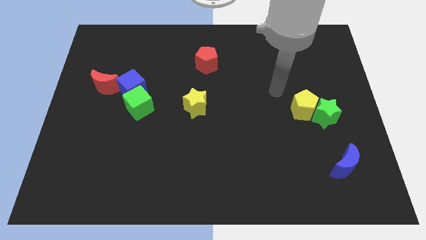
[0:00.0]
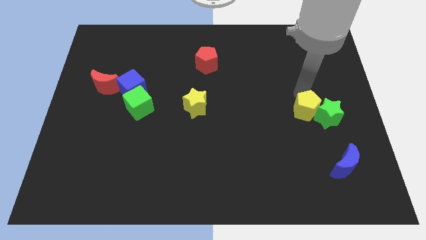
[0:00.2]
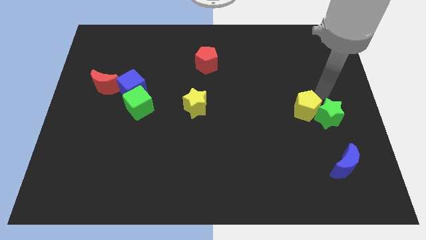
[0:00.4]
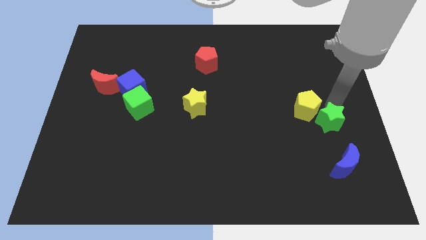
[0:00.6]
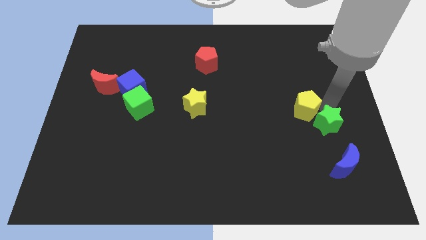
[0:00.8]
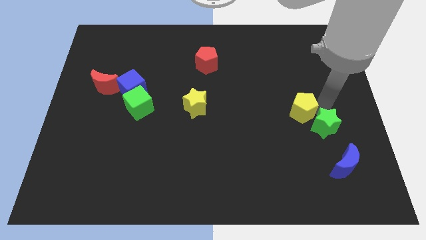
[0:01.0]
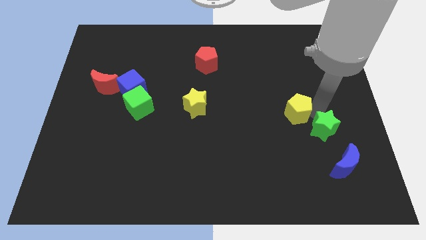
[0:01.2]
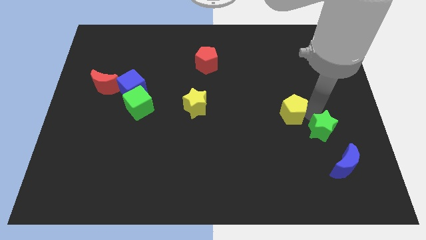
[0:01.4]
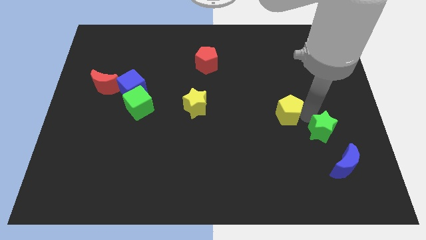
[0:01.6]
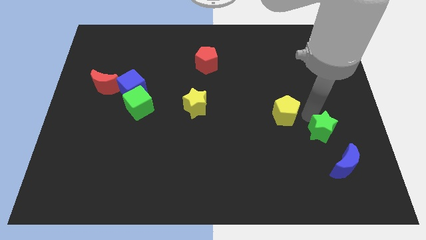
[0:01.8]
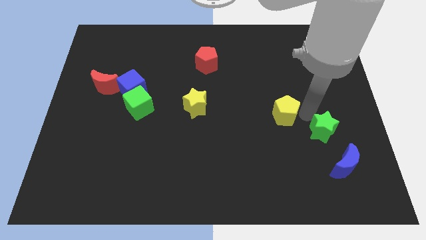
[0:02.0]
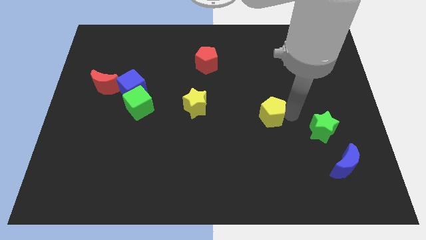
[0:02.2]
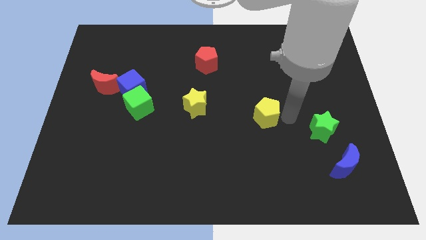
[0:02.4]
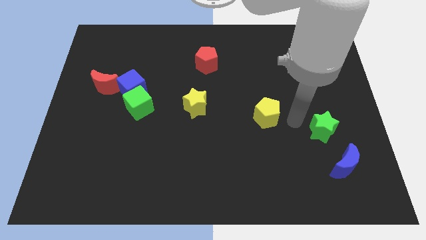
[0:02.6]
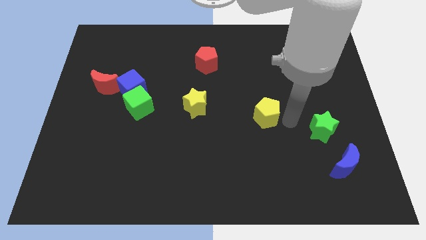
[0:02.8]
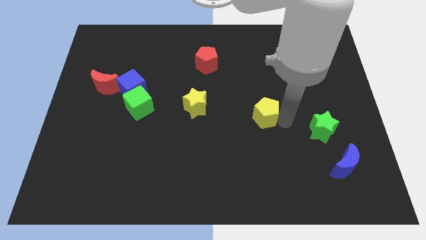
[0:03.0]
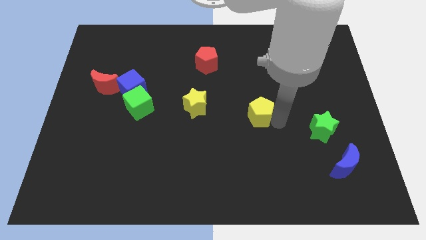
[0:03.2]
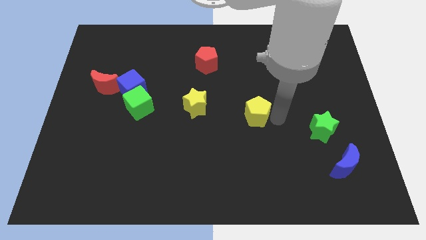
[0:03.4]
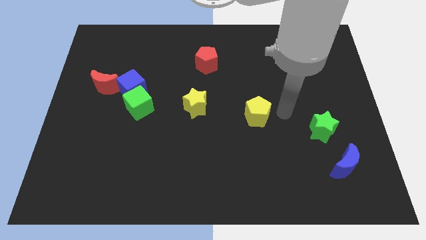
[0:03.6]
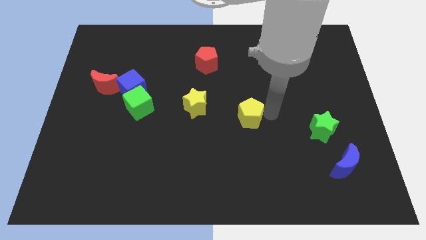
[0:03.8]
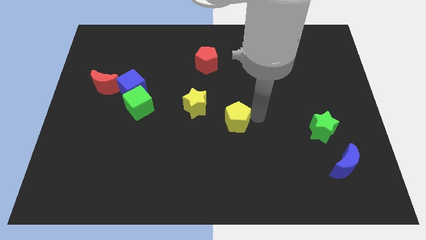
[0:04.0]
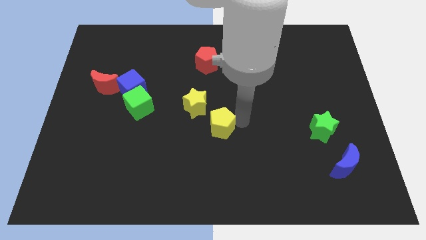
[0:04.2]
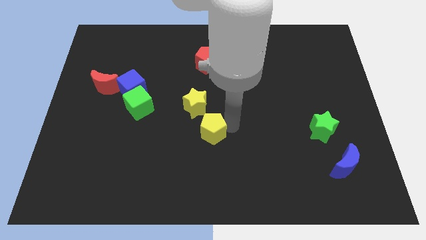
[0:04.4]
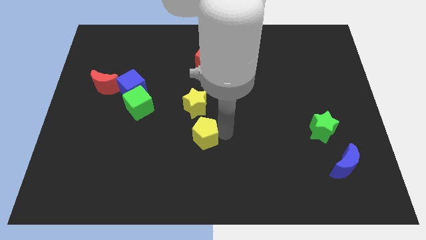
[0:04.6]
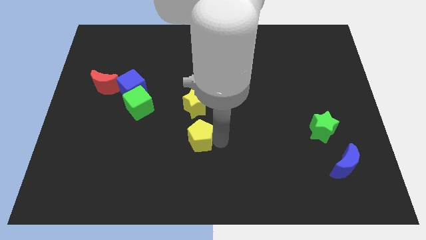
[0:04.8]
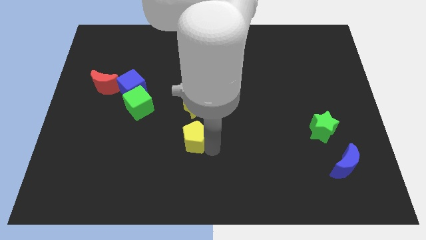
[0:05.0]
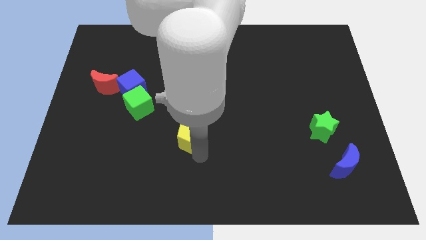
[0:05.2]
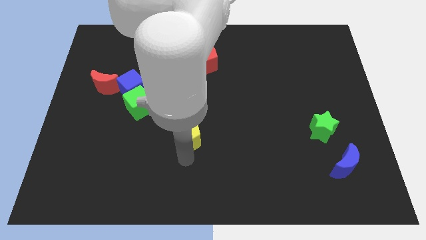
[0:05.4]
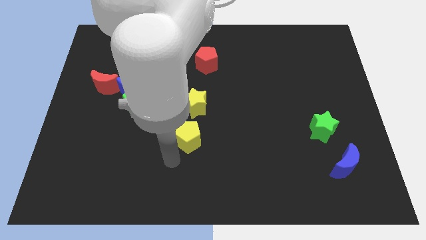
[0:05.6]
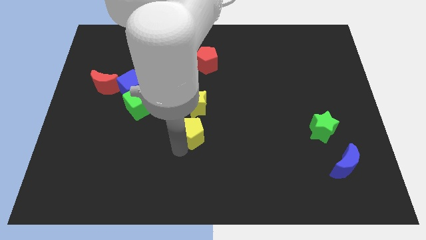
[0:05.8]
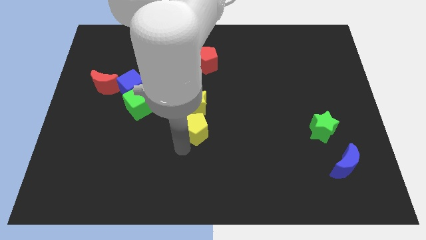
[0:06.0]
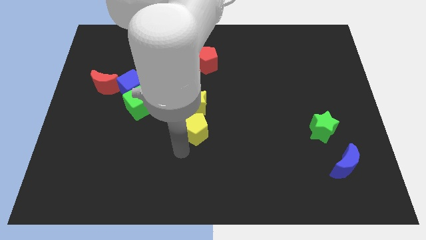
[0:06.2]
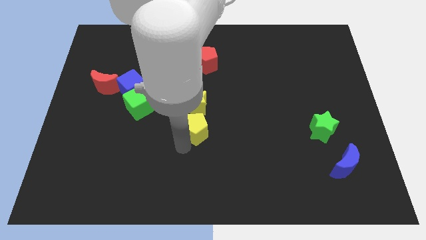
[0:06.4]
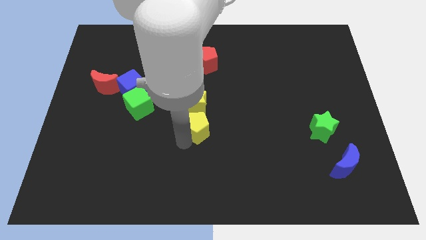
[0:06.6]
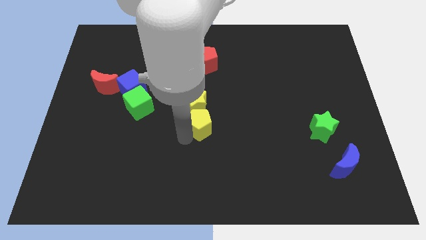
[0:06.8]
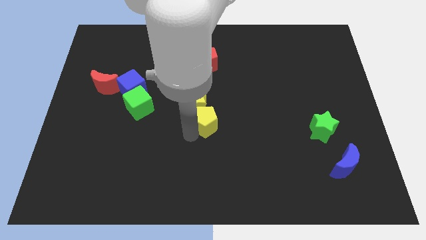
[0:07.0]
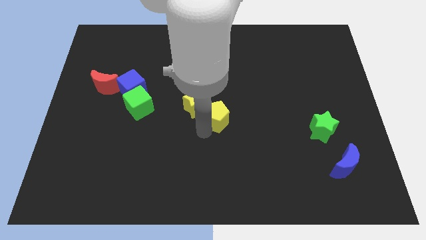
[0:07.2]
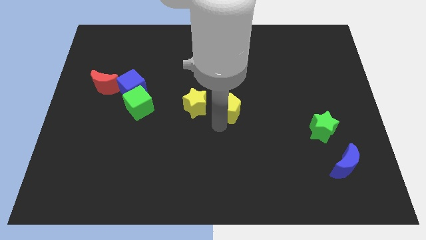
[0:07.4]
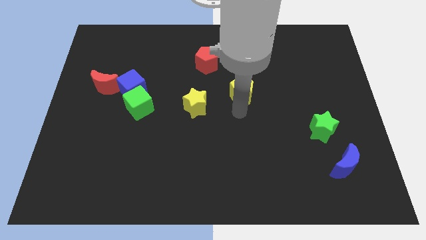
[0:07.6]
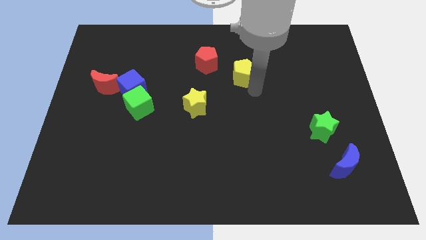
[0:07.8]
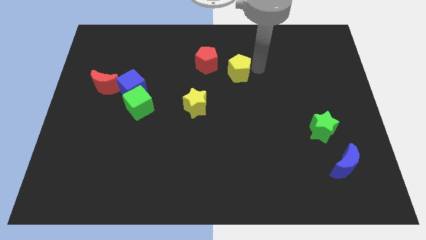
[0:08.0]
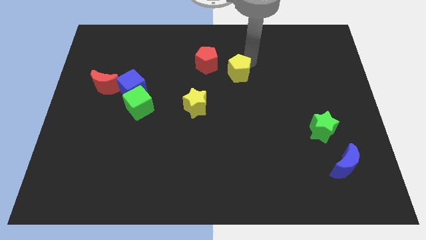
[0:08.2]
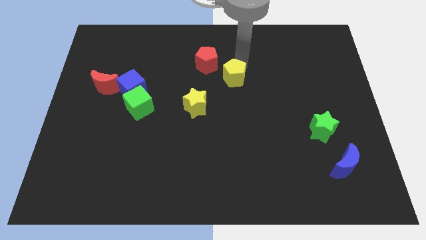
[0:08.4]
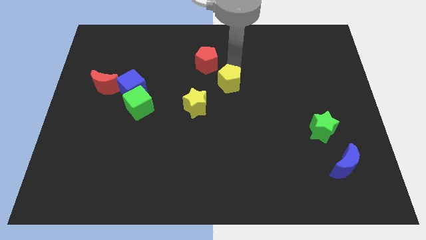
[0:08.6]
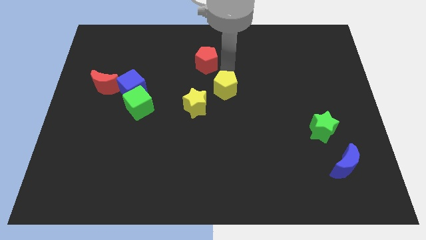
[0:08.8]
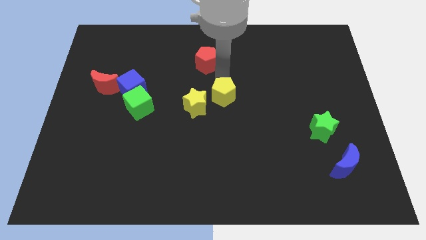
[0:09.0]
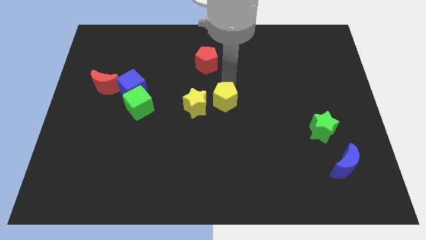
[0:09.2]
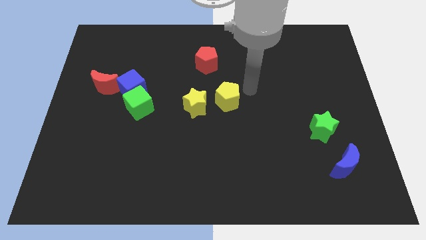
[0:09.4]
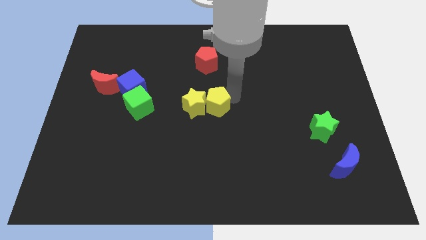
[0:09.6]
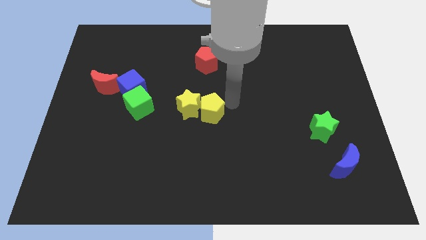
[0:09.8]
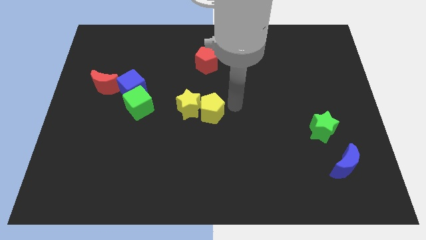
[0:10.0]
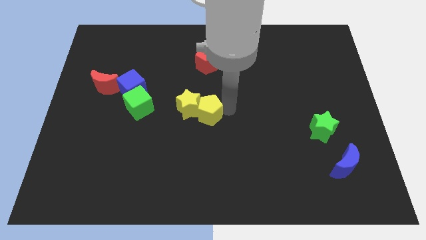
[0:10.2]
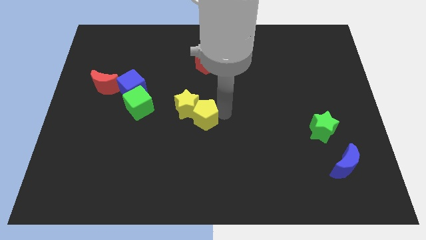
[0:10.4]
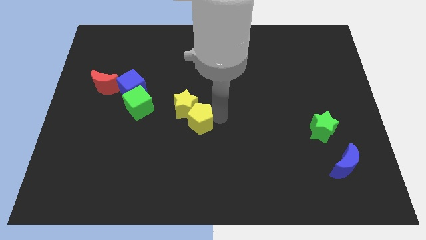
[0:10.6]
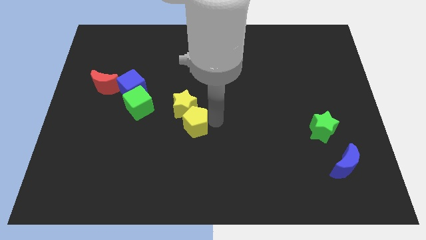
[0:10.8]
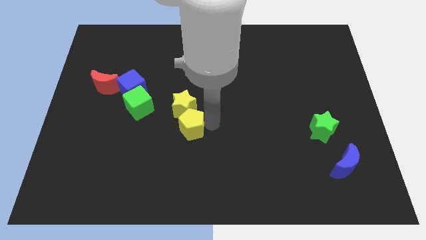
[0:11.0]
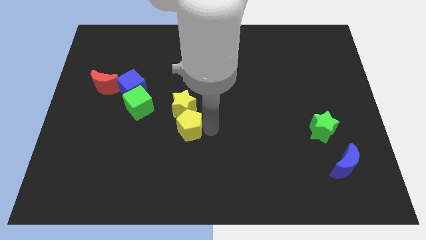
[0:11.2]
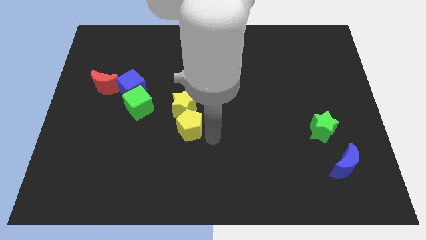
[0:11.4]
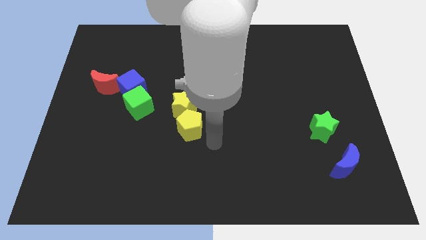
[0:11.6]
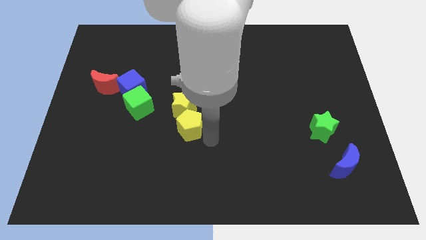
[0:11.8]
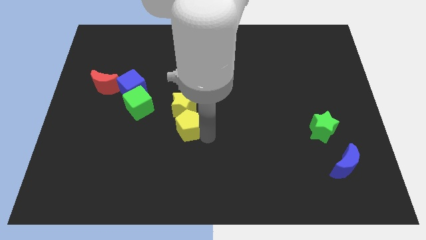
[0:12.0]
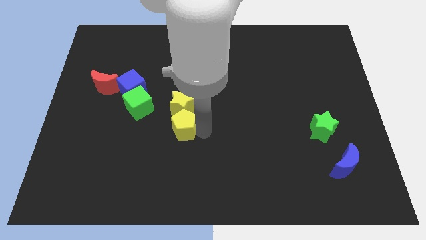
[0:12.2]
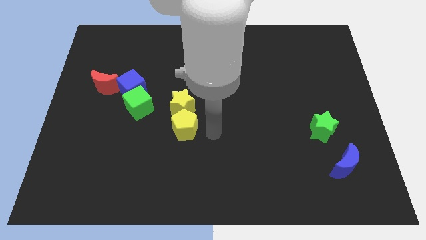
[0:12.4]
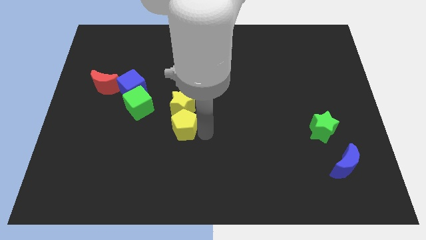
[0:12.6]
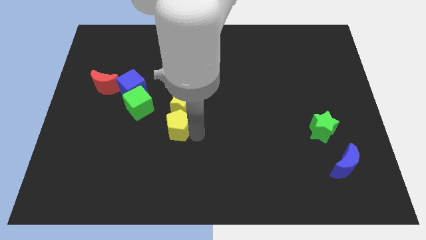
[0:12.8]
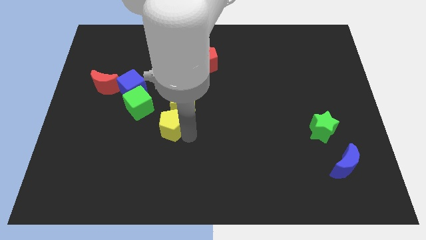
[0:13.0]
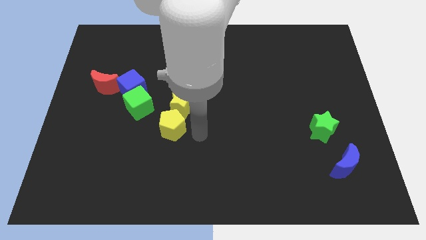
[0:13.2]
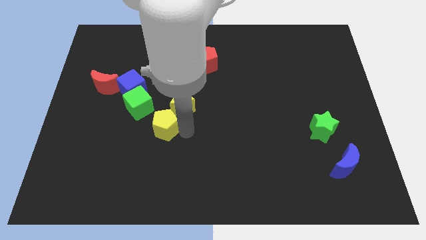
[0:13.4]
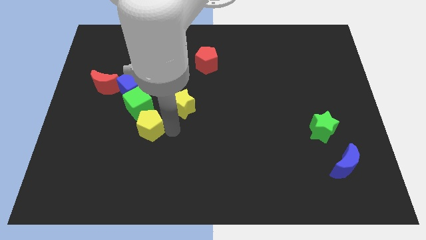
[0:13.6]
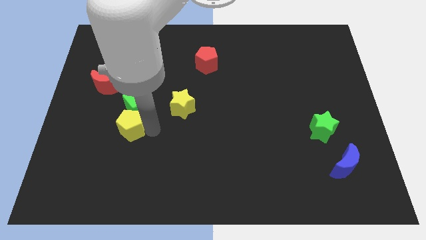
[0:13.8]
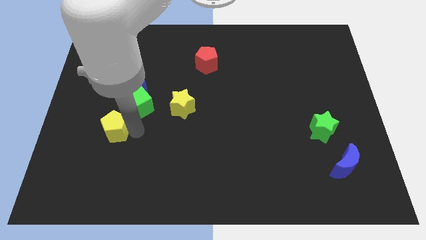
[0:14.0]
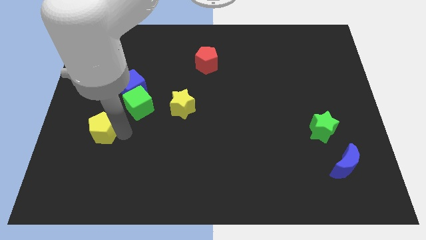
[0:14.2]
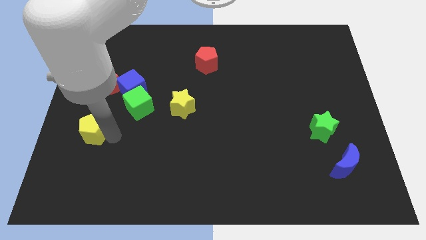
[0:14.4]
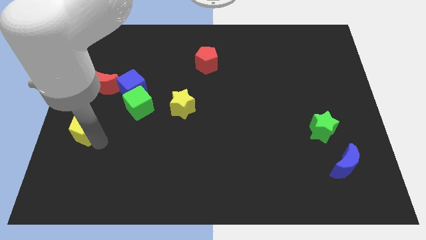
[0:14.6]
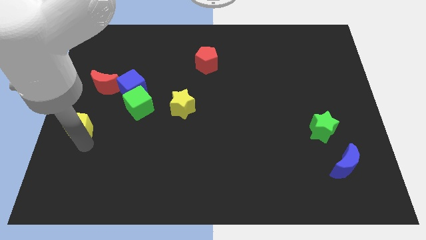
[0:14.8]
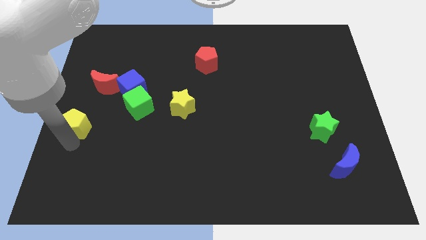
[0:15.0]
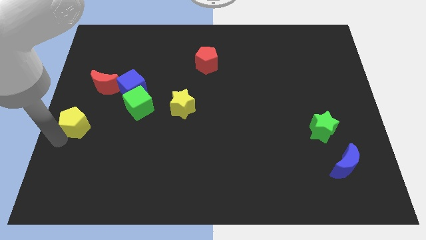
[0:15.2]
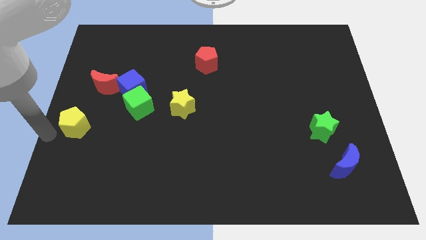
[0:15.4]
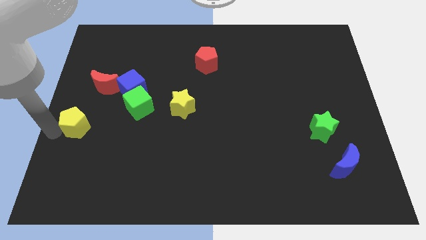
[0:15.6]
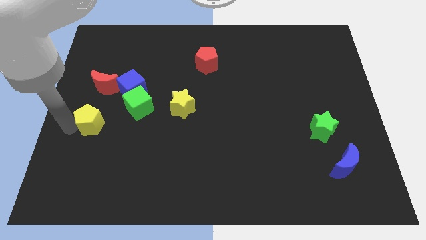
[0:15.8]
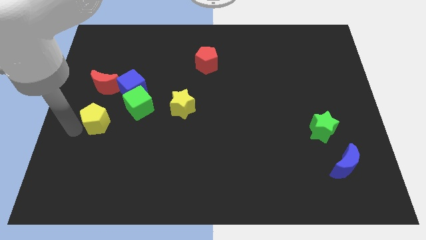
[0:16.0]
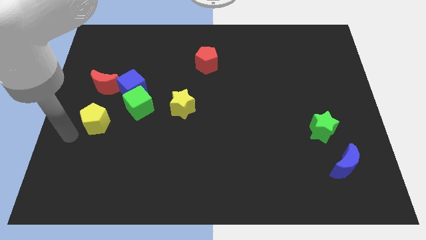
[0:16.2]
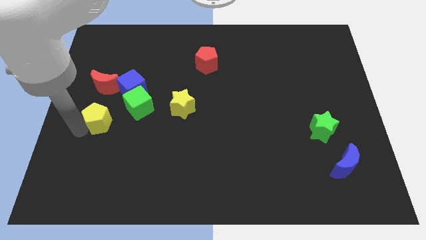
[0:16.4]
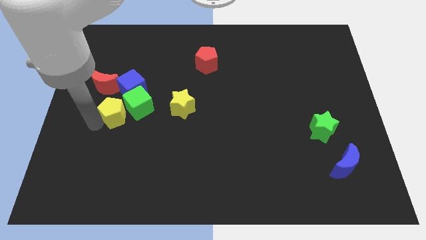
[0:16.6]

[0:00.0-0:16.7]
push the yellow pentagon to the bottom right of the red moon
